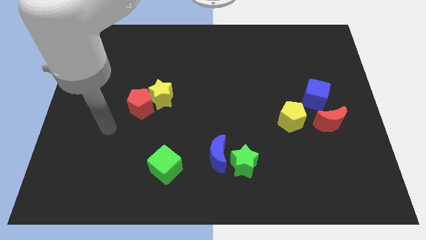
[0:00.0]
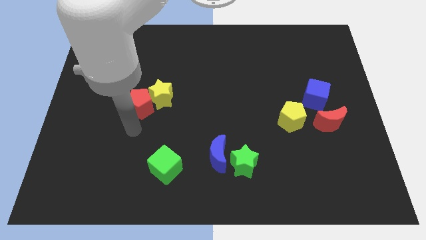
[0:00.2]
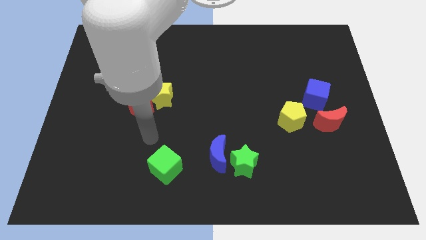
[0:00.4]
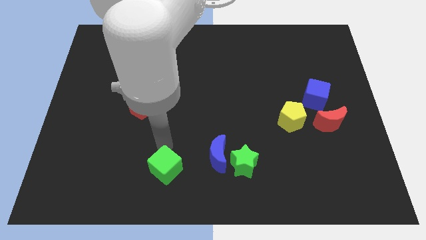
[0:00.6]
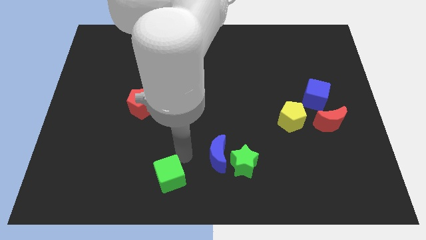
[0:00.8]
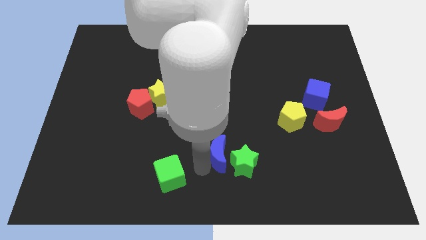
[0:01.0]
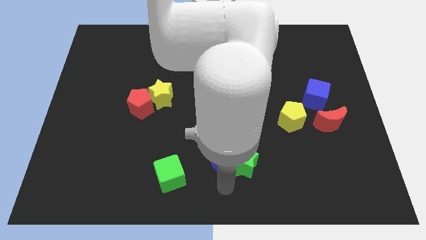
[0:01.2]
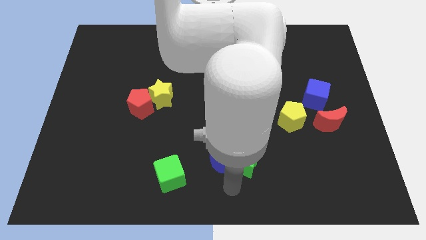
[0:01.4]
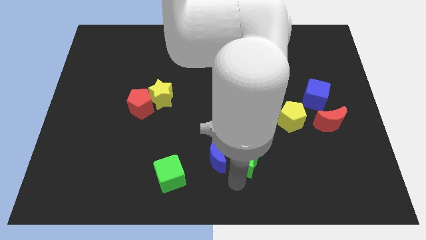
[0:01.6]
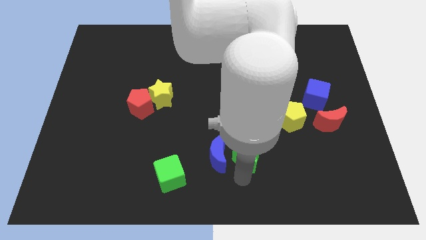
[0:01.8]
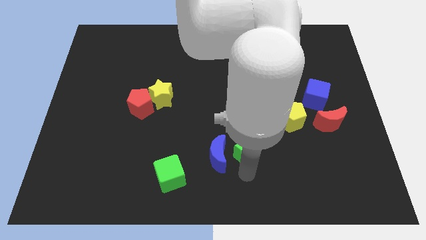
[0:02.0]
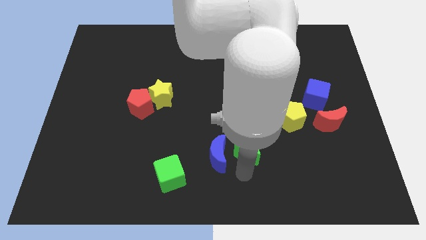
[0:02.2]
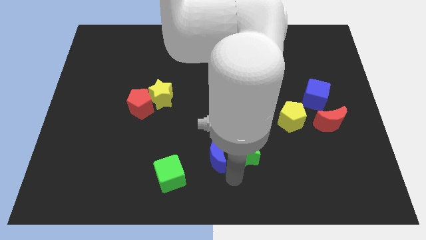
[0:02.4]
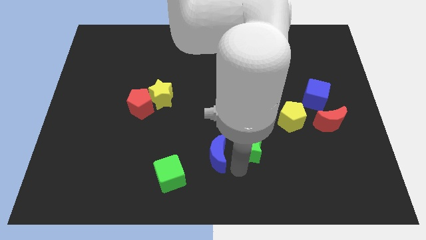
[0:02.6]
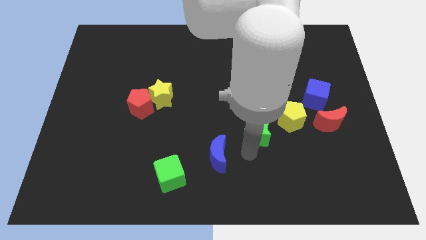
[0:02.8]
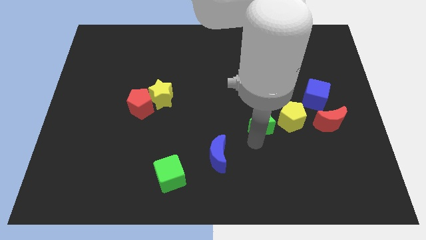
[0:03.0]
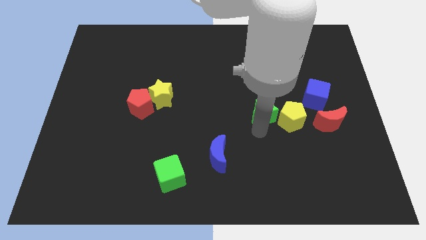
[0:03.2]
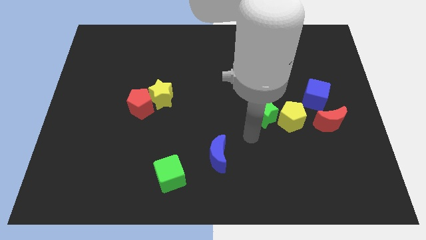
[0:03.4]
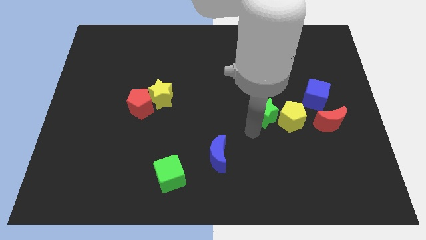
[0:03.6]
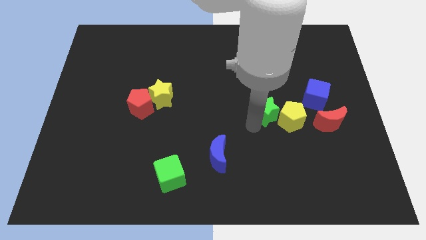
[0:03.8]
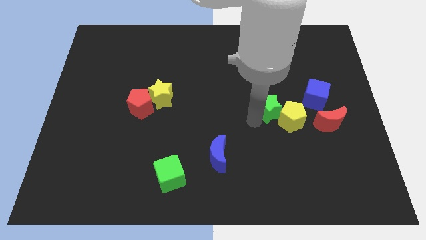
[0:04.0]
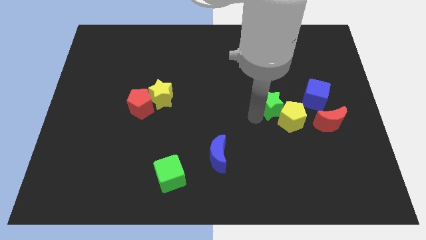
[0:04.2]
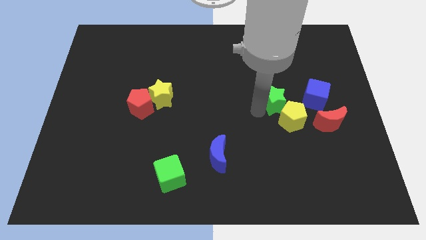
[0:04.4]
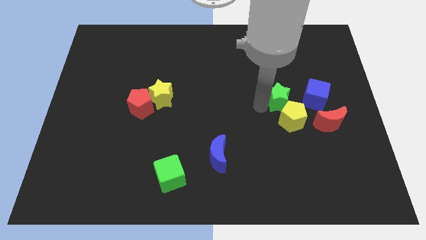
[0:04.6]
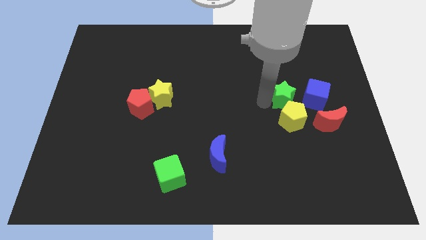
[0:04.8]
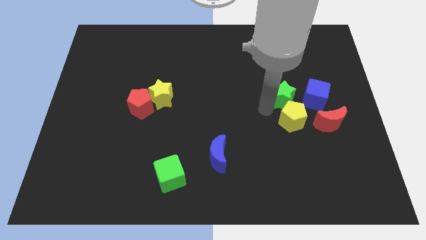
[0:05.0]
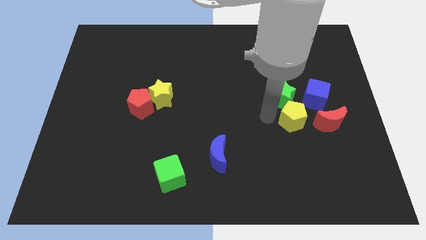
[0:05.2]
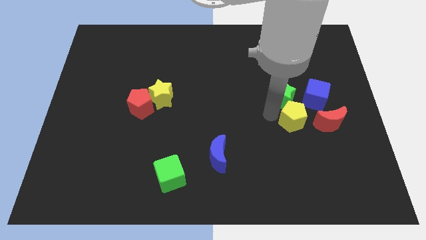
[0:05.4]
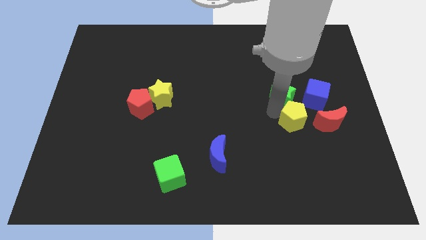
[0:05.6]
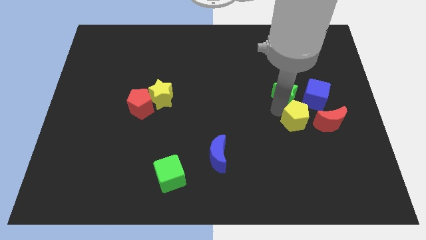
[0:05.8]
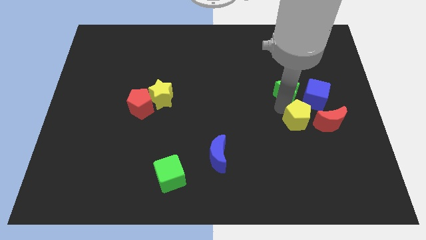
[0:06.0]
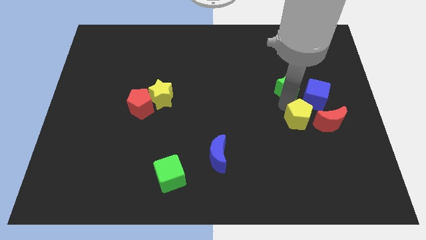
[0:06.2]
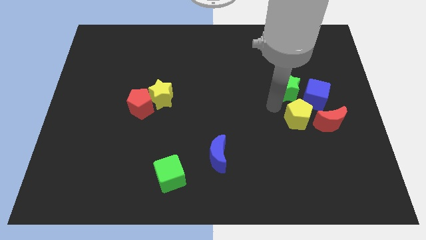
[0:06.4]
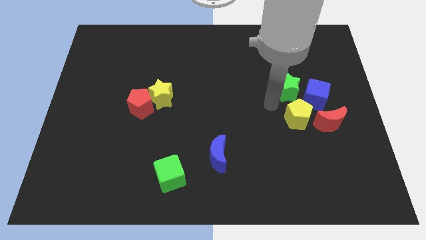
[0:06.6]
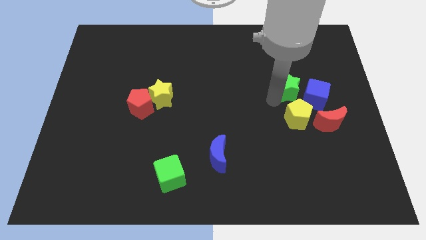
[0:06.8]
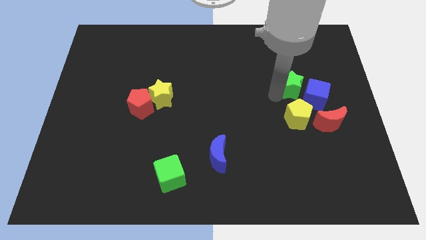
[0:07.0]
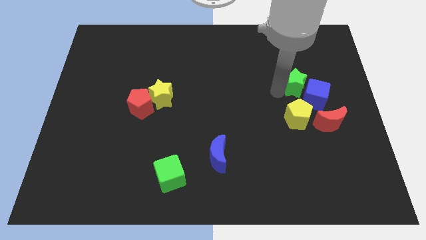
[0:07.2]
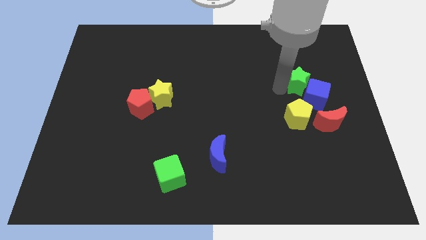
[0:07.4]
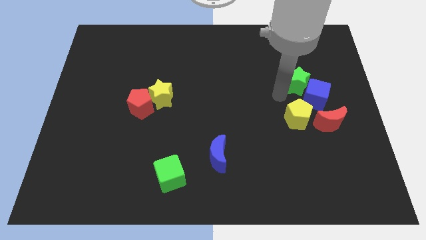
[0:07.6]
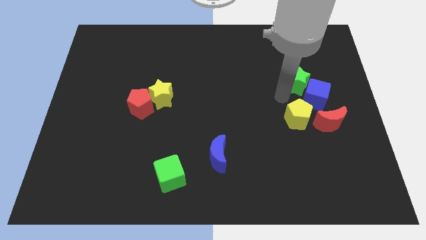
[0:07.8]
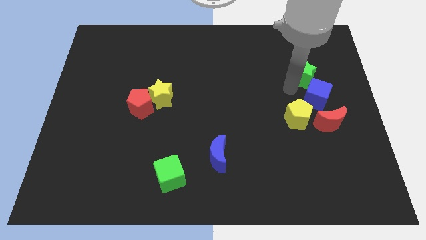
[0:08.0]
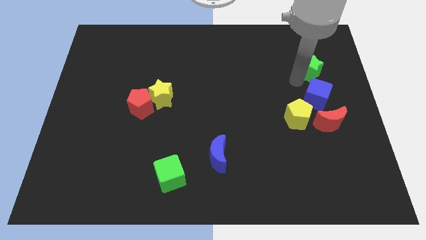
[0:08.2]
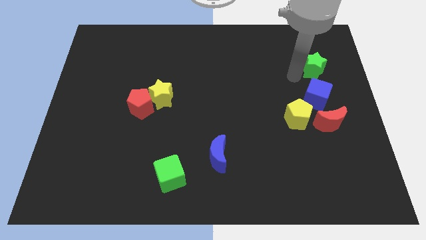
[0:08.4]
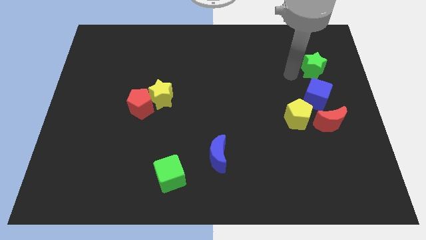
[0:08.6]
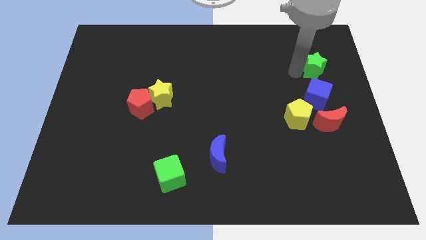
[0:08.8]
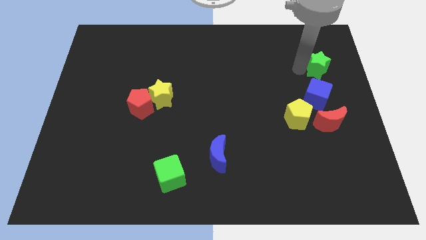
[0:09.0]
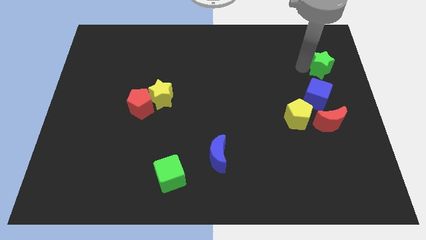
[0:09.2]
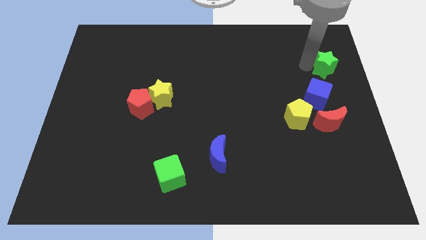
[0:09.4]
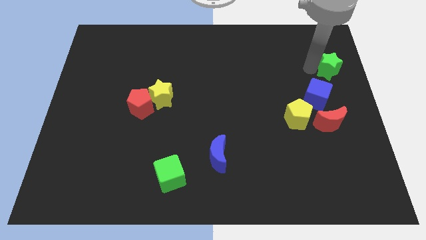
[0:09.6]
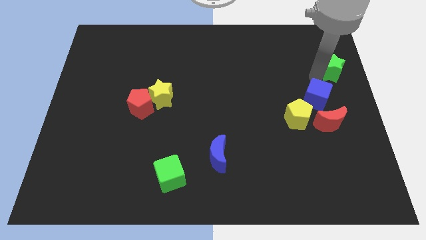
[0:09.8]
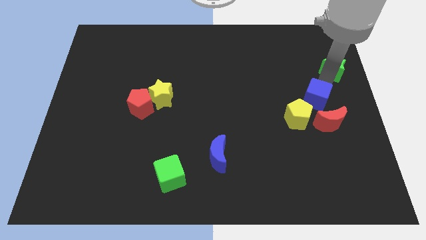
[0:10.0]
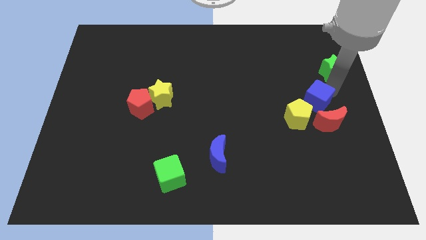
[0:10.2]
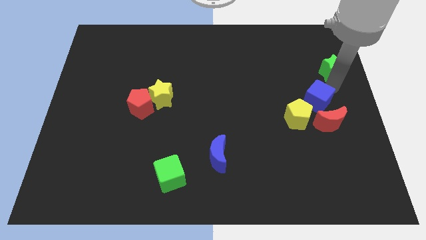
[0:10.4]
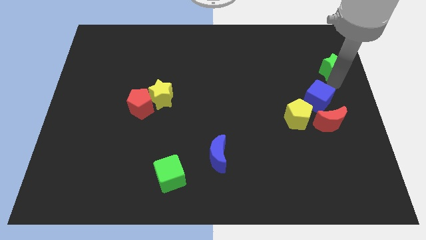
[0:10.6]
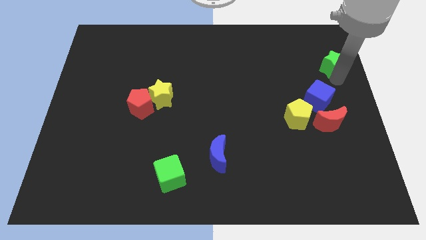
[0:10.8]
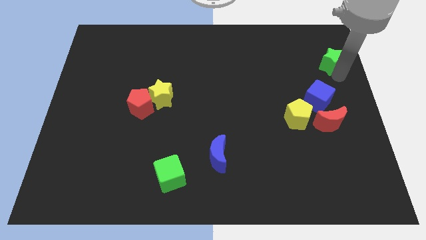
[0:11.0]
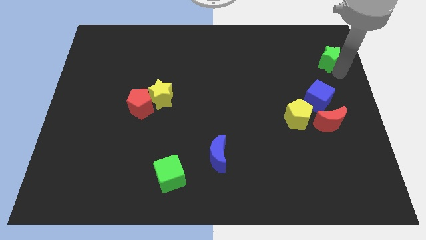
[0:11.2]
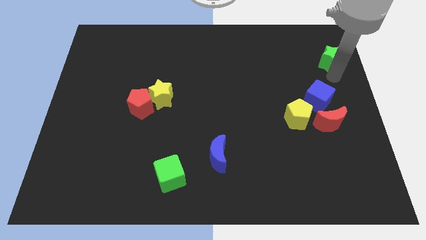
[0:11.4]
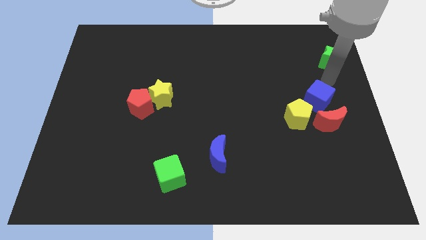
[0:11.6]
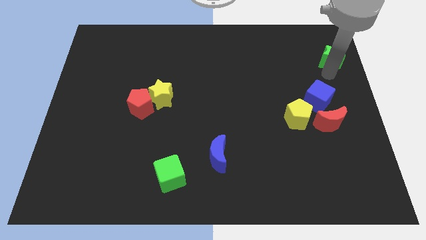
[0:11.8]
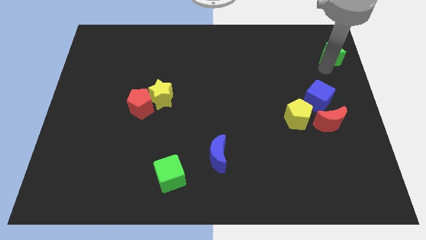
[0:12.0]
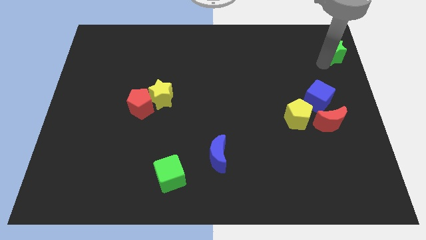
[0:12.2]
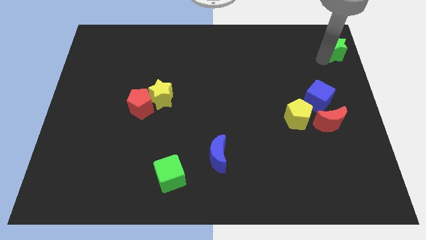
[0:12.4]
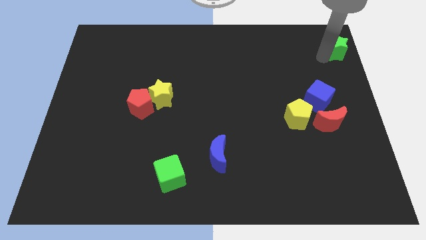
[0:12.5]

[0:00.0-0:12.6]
move the green star to the top right corner
